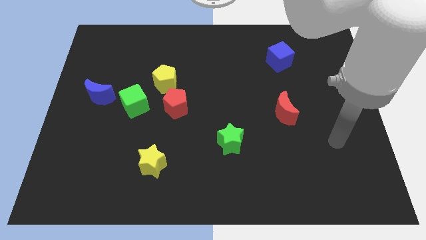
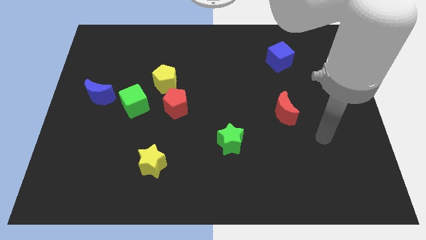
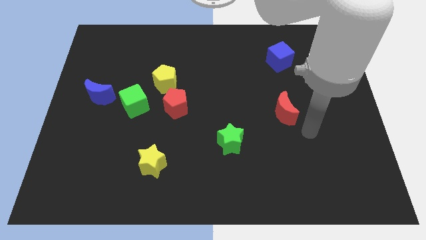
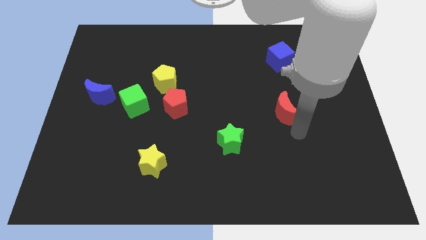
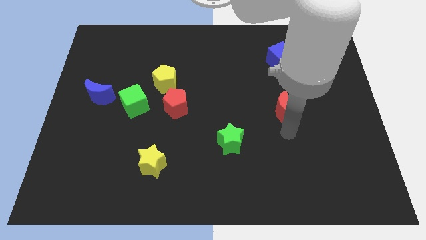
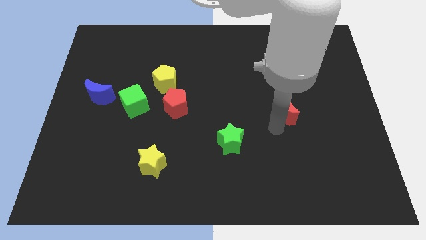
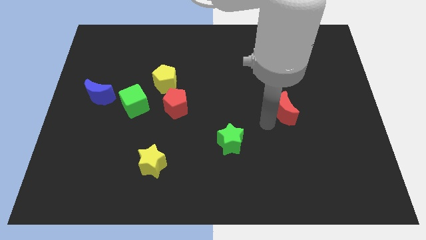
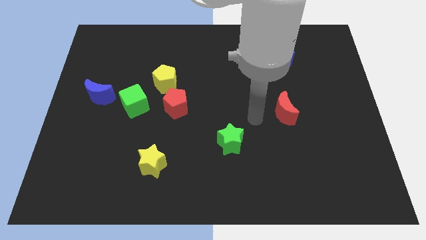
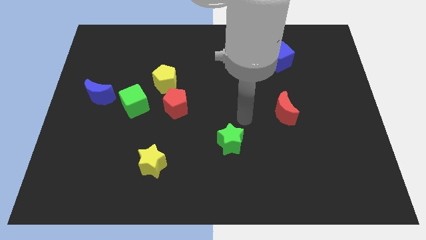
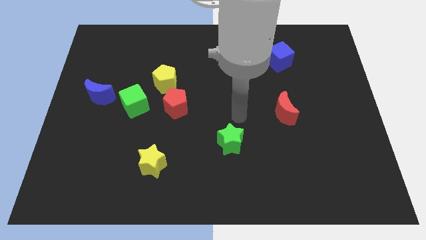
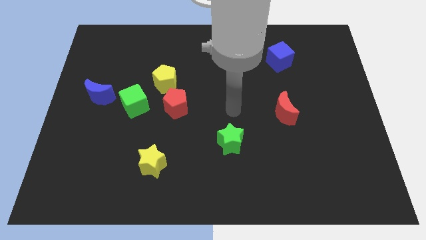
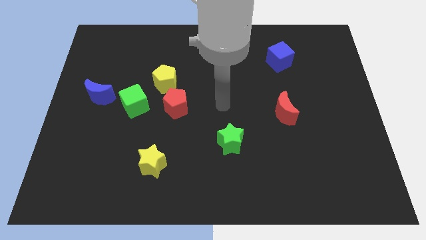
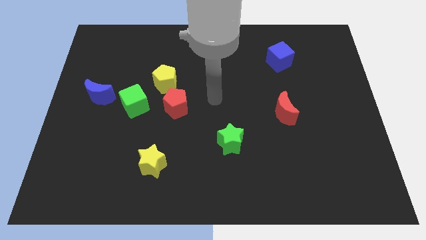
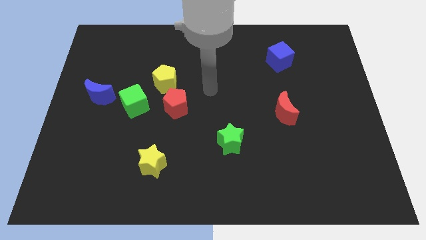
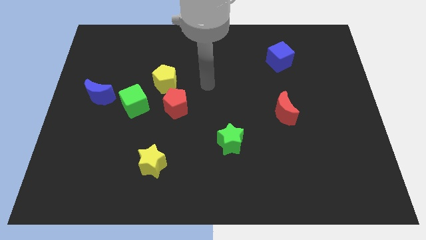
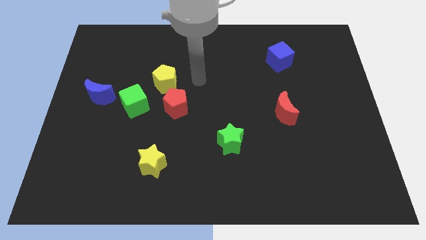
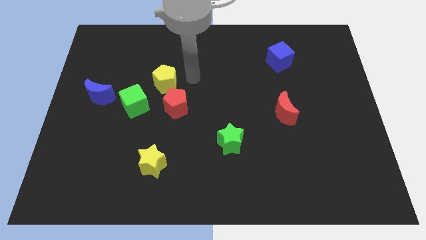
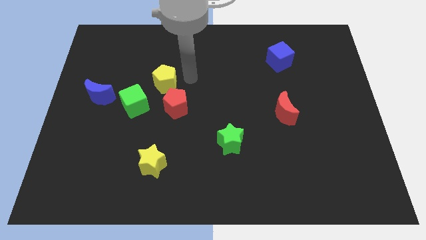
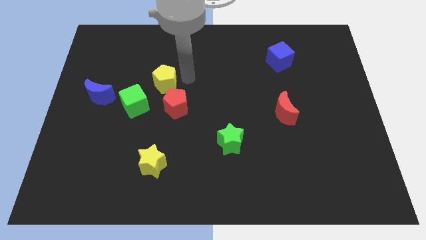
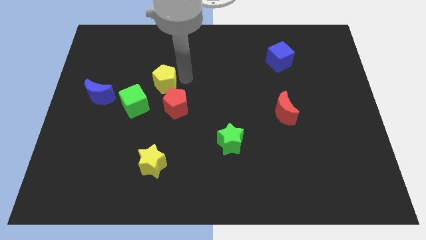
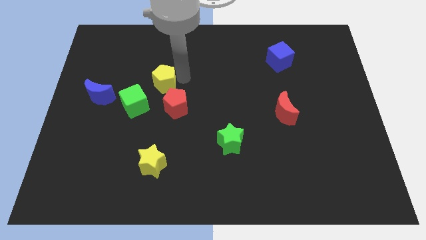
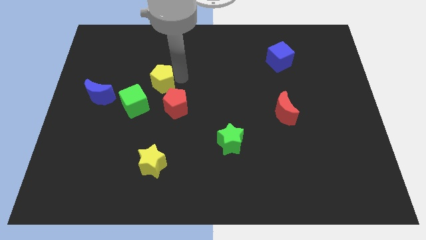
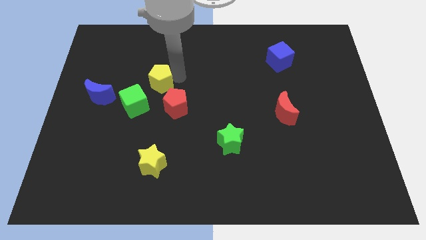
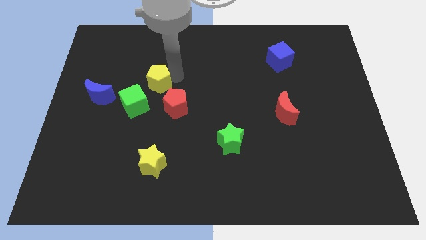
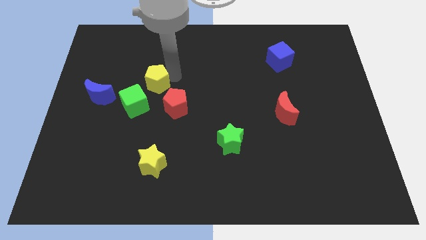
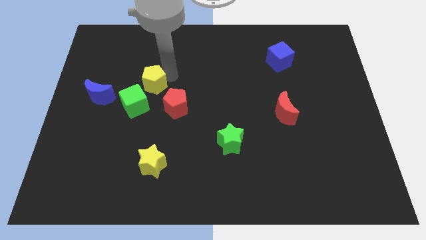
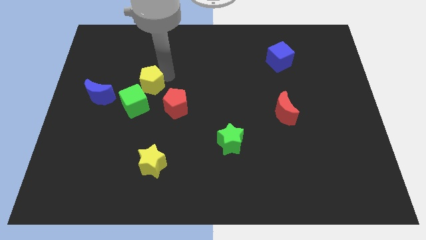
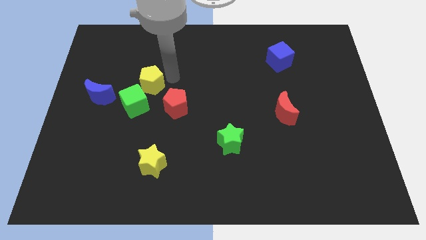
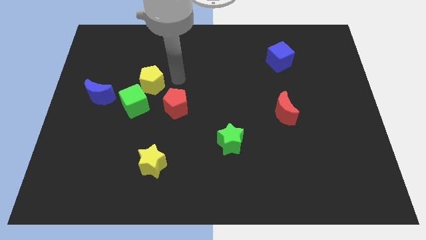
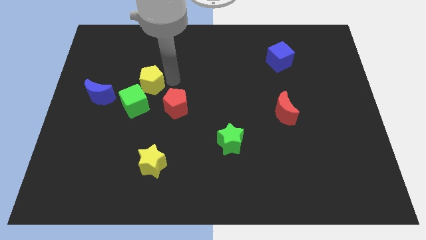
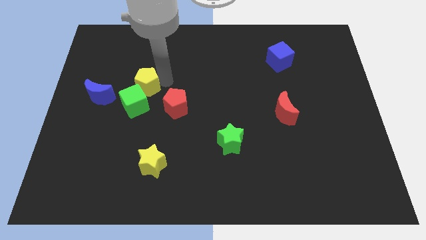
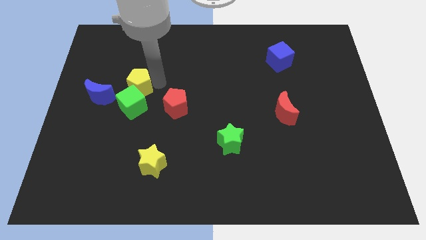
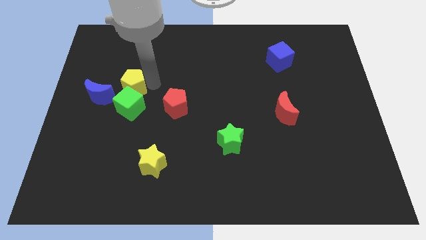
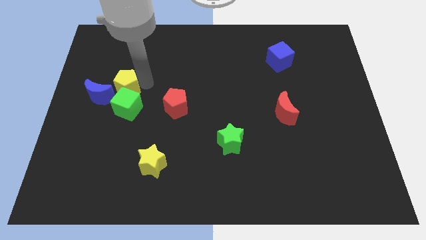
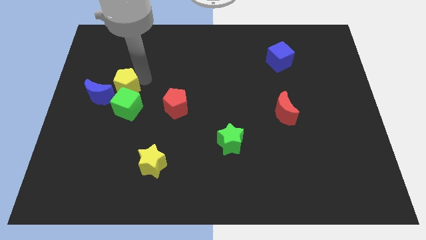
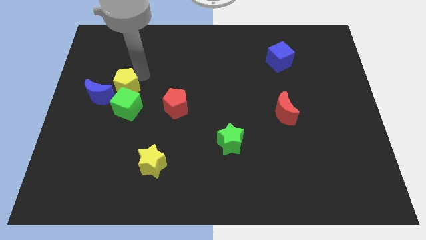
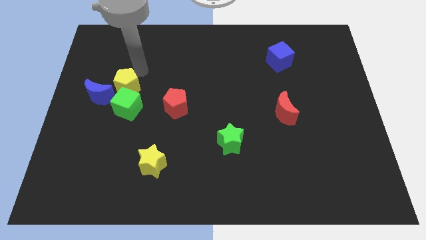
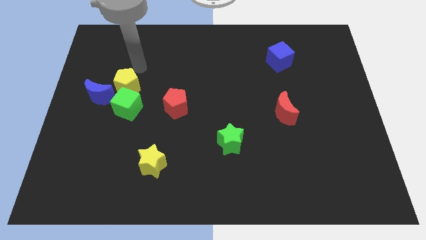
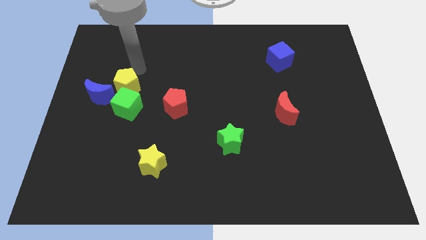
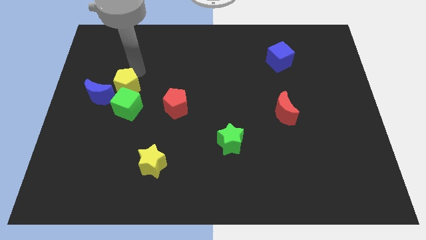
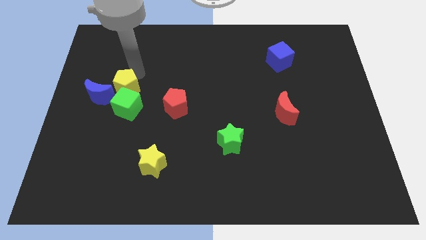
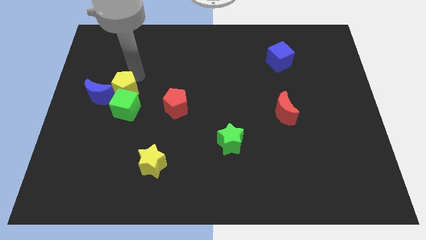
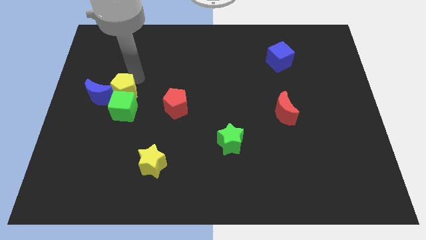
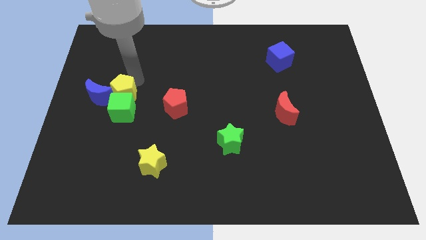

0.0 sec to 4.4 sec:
move the yellow pentagon to the left side of the red pentagon

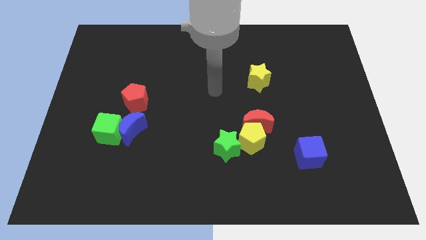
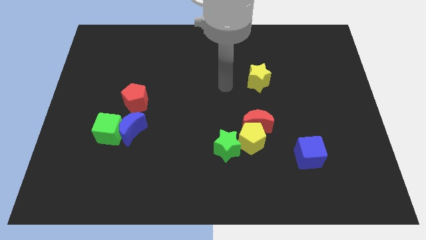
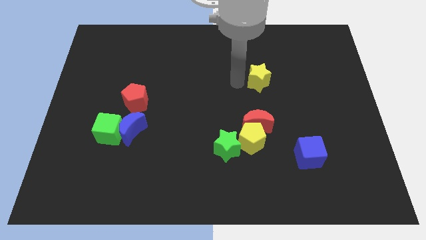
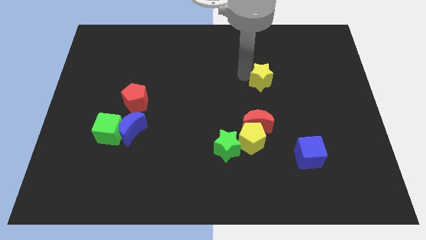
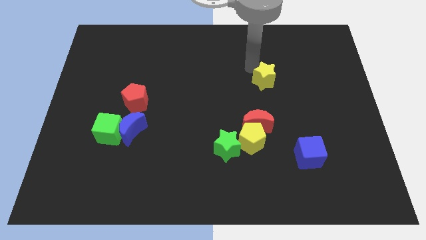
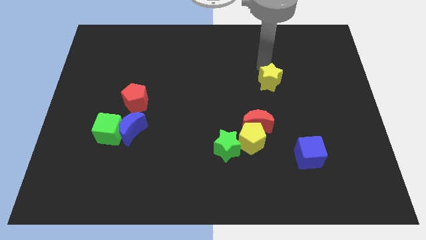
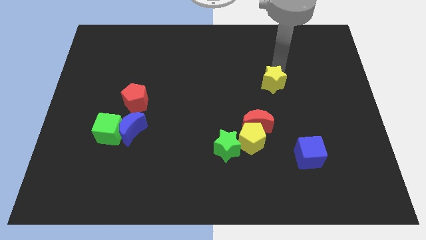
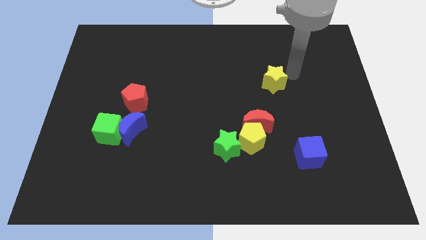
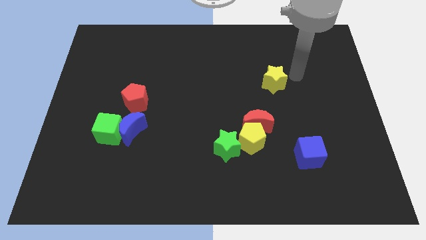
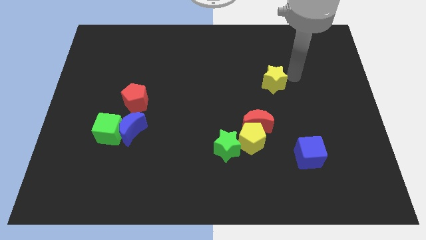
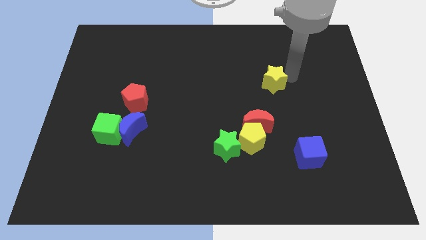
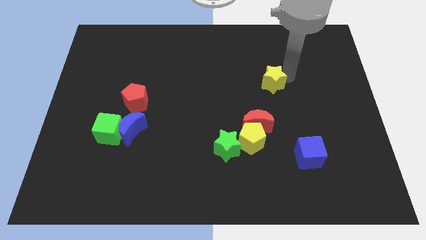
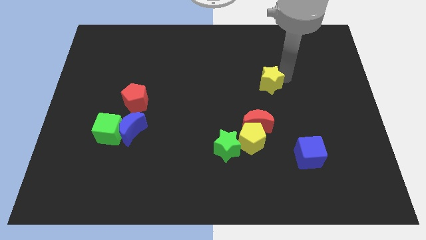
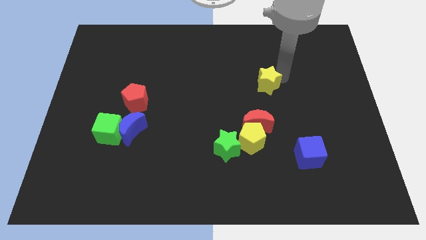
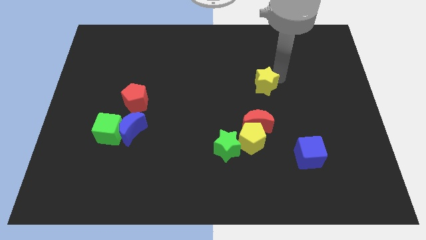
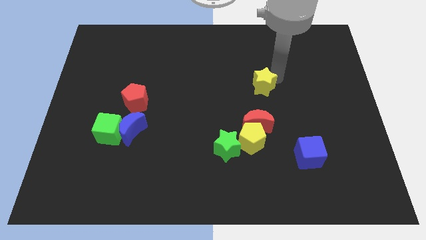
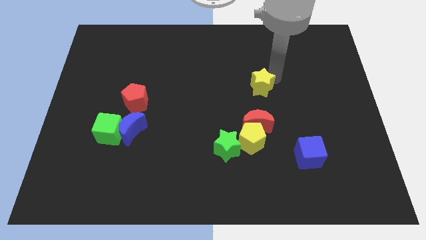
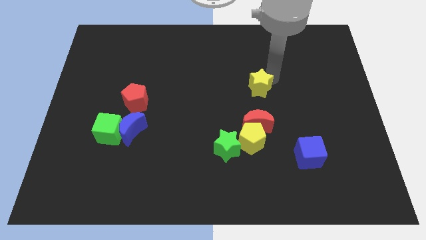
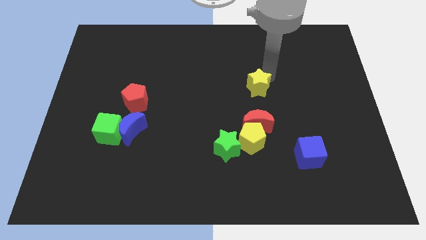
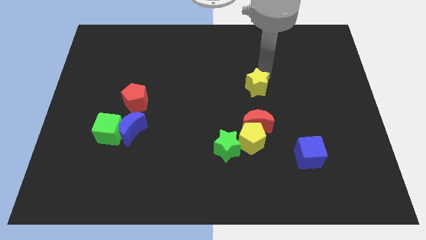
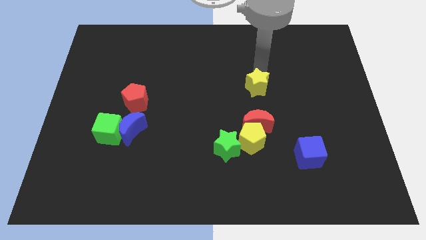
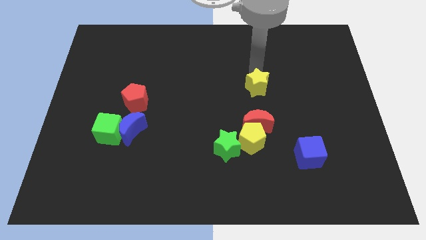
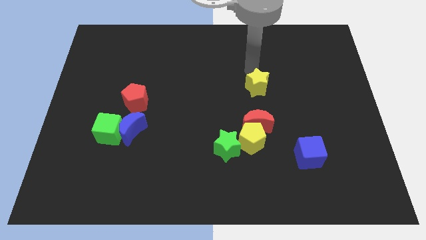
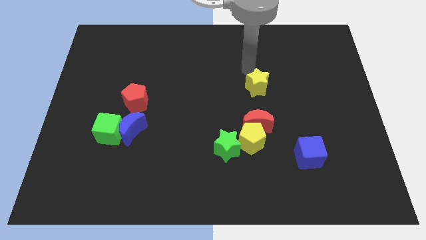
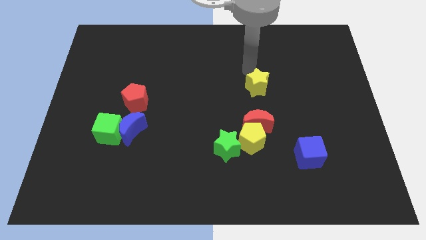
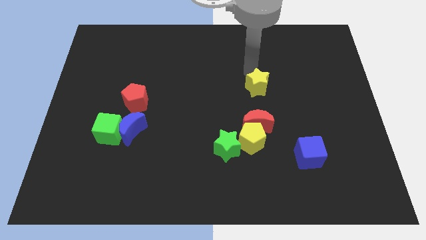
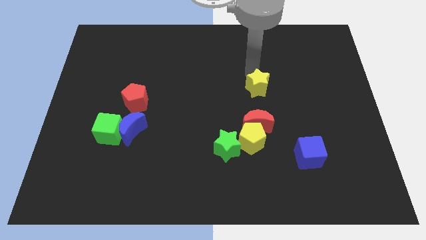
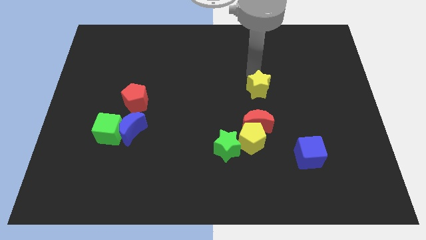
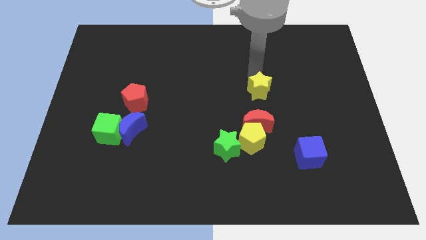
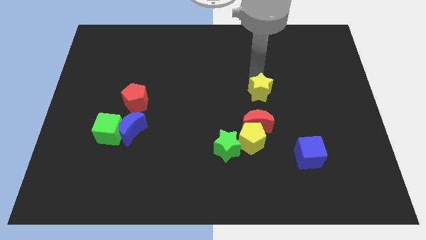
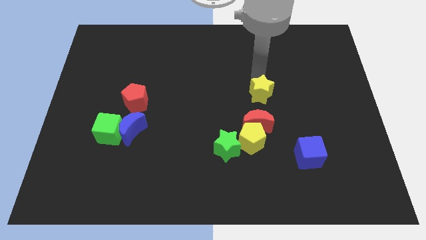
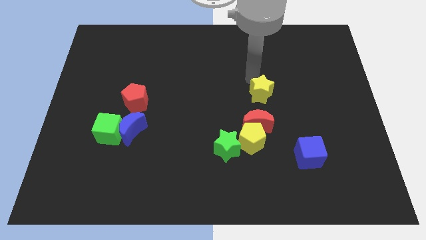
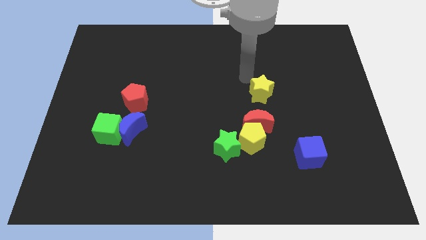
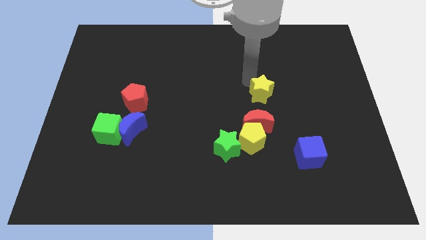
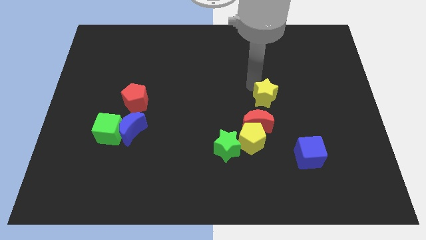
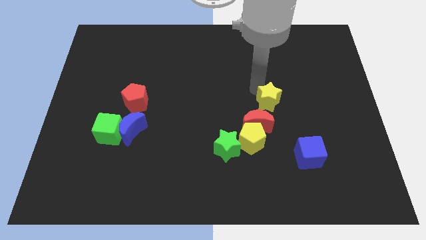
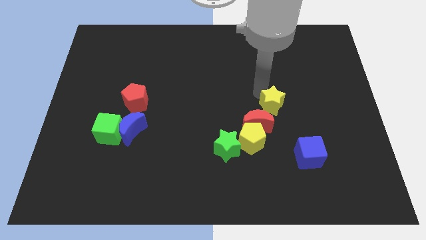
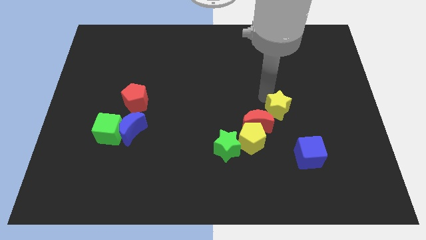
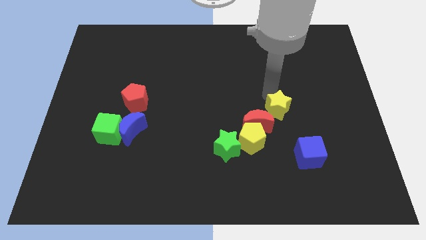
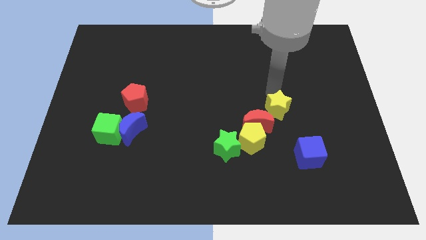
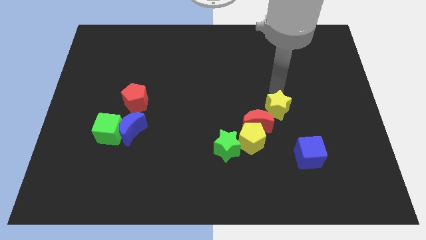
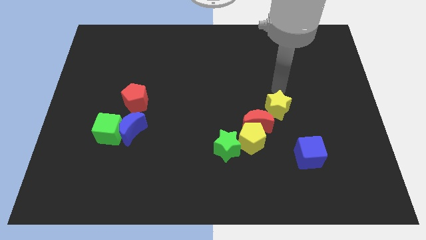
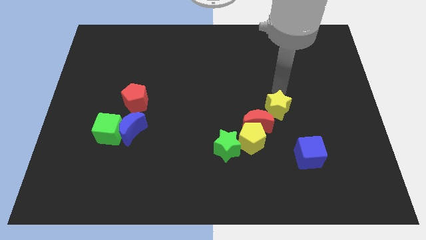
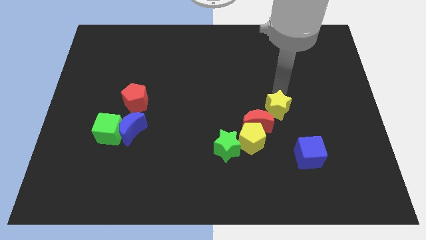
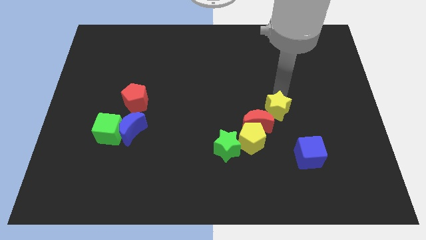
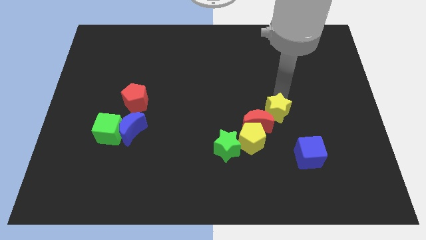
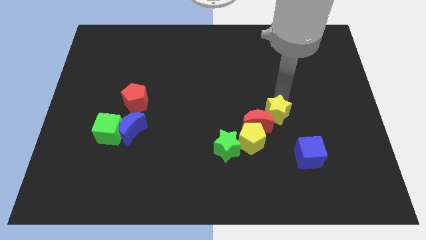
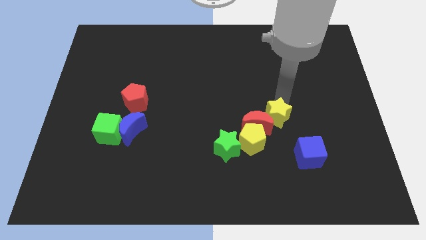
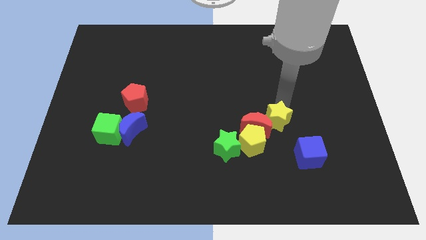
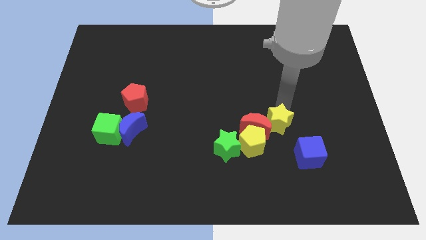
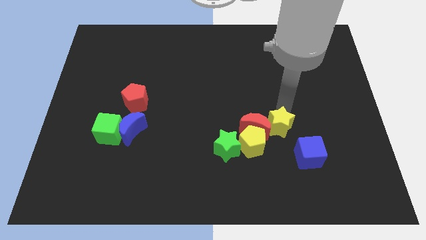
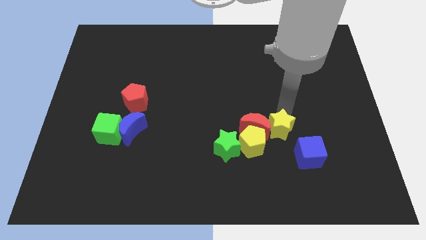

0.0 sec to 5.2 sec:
put the yellow star to the right of the green star
